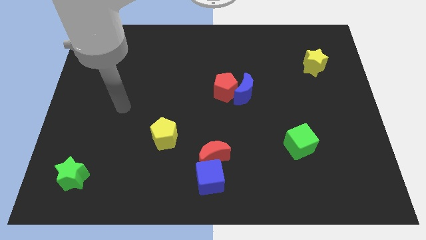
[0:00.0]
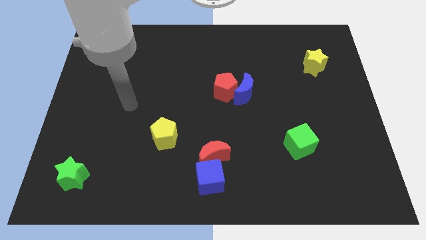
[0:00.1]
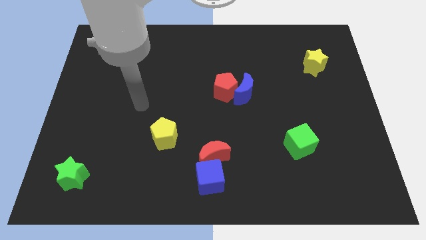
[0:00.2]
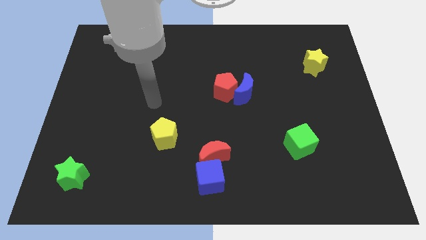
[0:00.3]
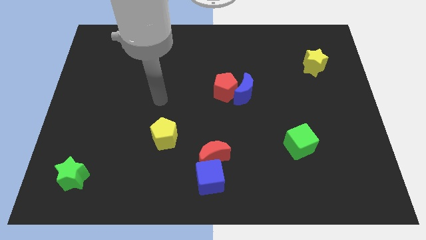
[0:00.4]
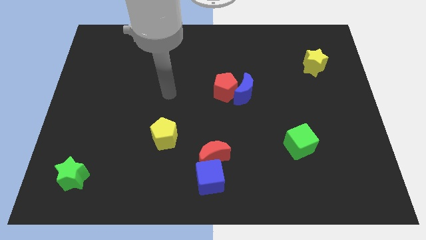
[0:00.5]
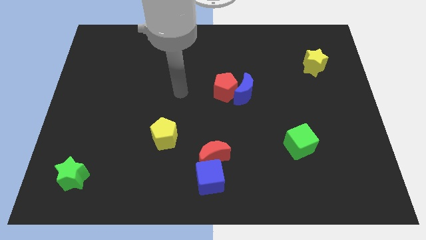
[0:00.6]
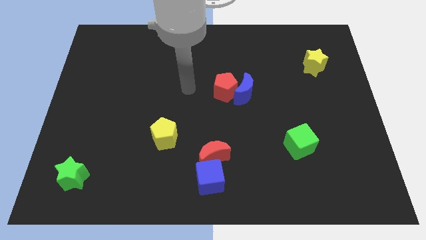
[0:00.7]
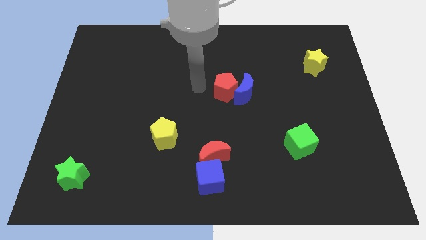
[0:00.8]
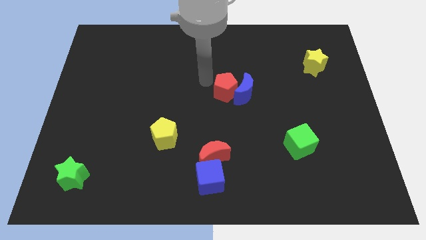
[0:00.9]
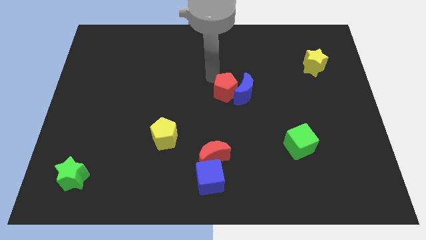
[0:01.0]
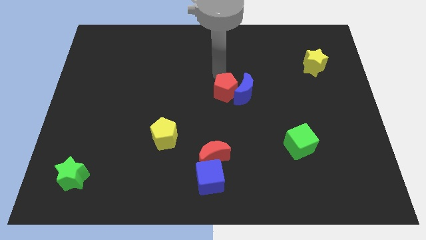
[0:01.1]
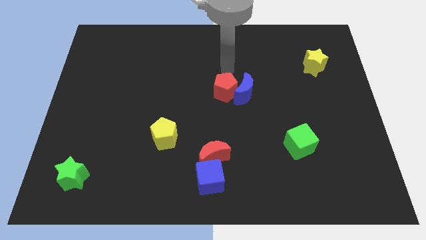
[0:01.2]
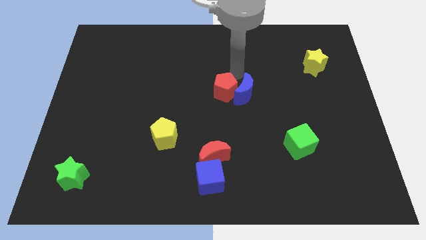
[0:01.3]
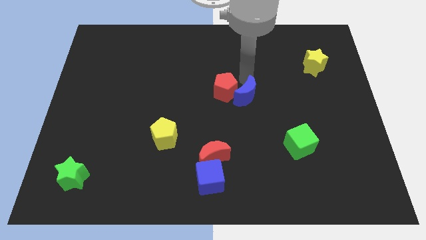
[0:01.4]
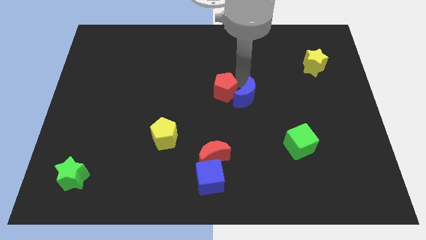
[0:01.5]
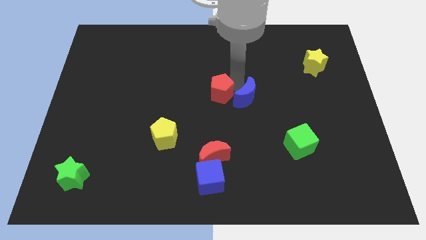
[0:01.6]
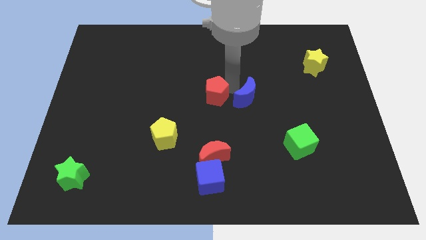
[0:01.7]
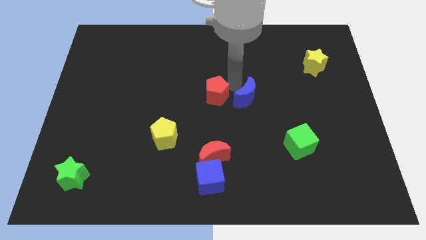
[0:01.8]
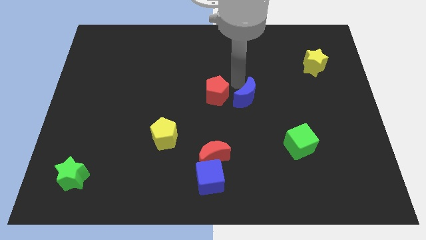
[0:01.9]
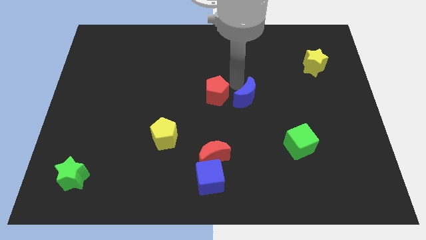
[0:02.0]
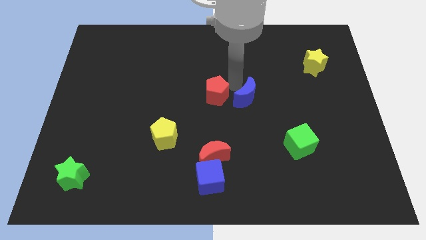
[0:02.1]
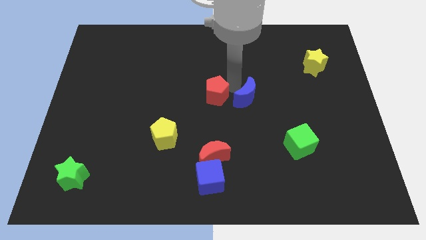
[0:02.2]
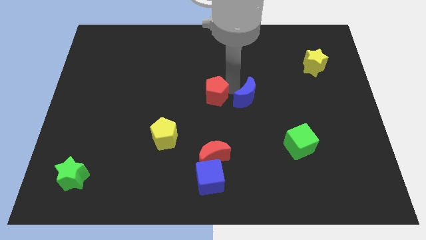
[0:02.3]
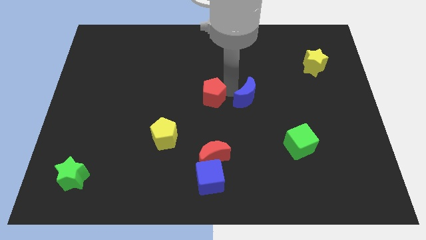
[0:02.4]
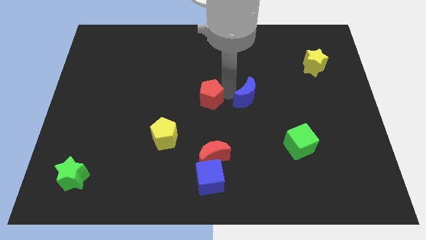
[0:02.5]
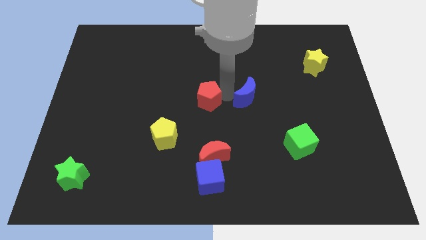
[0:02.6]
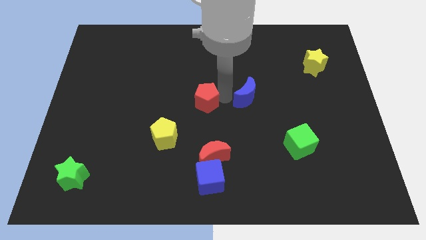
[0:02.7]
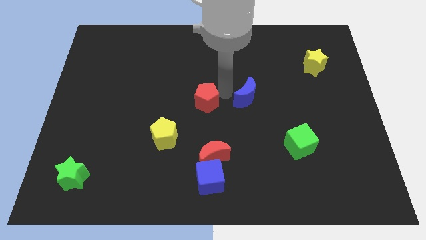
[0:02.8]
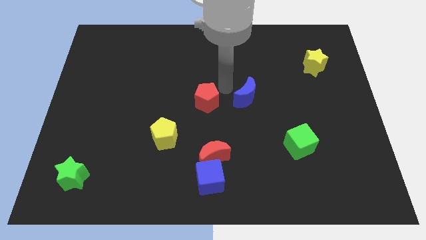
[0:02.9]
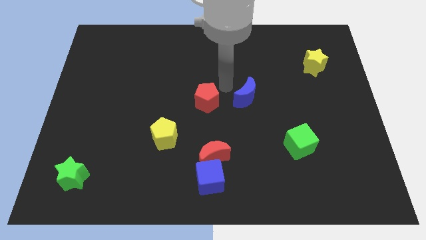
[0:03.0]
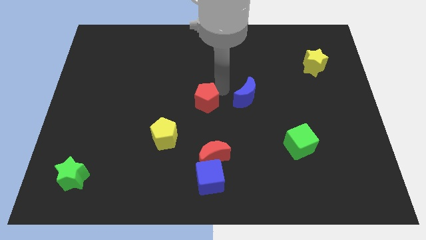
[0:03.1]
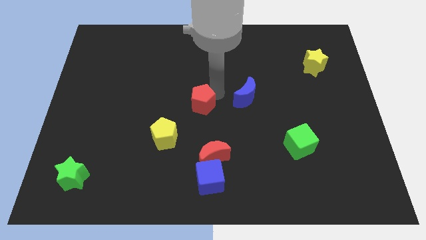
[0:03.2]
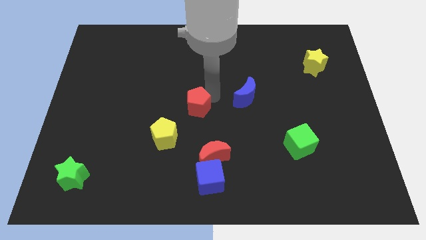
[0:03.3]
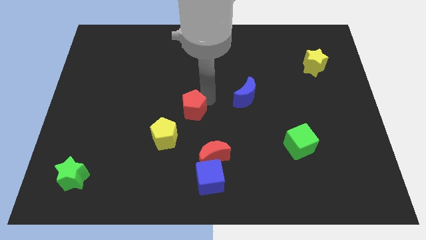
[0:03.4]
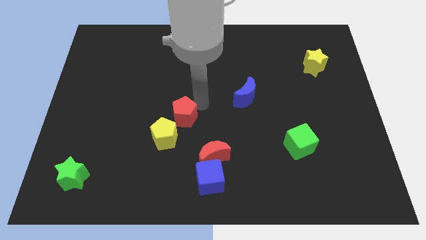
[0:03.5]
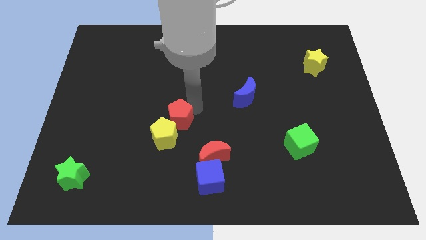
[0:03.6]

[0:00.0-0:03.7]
put the red pentagon close to the yellow pentagon

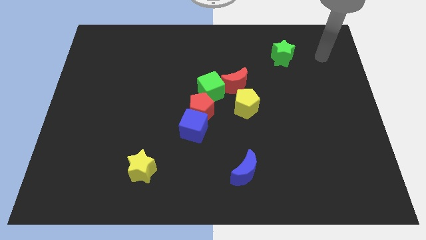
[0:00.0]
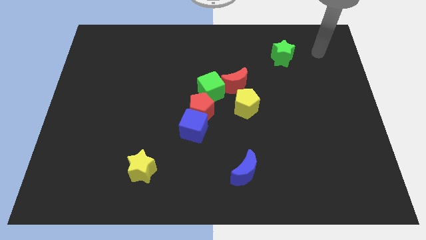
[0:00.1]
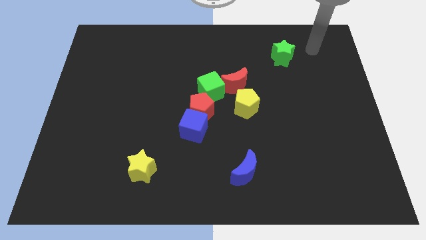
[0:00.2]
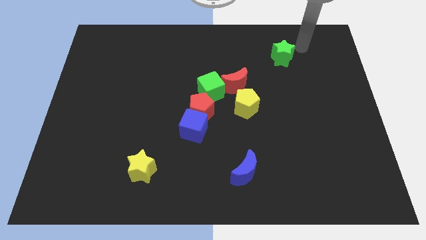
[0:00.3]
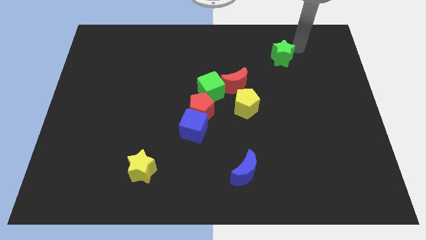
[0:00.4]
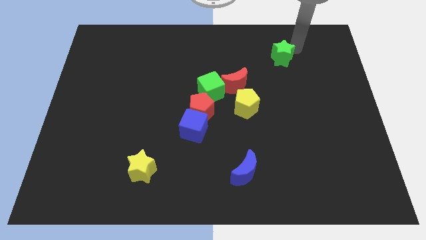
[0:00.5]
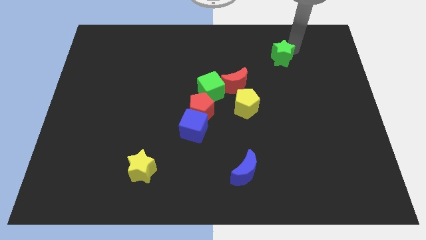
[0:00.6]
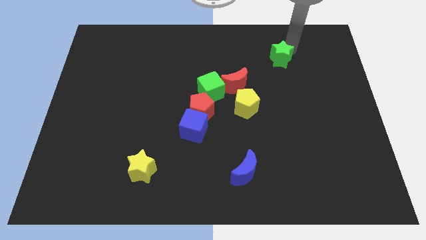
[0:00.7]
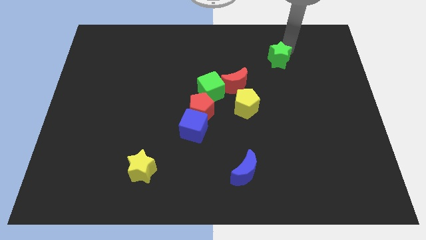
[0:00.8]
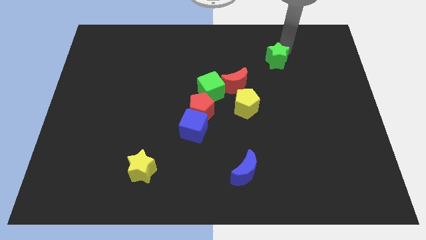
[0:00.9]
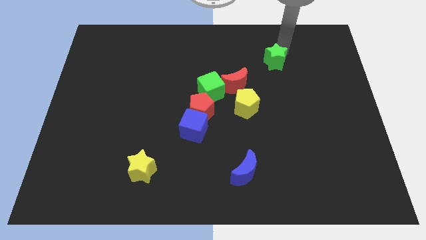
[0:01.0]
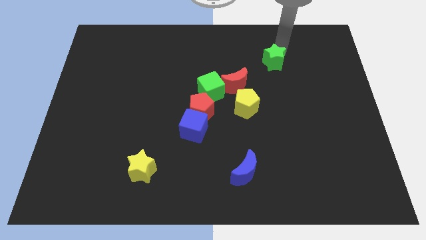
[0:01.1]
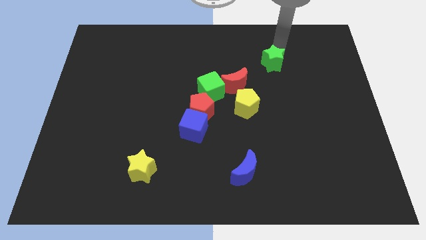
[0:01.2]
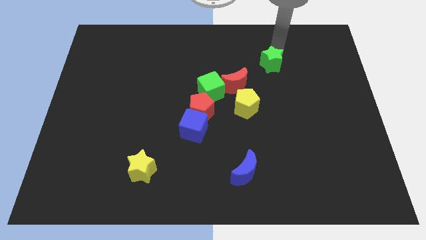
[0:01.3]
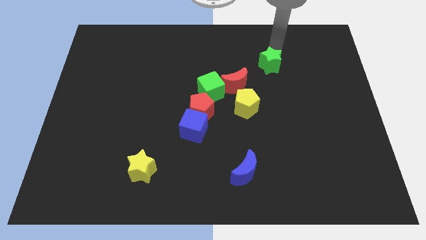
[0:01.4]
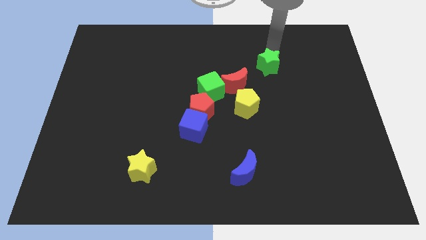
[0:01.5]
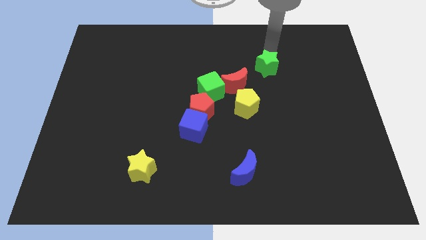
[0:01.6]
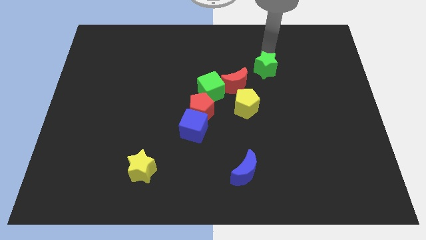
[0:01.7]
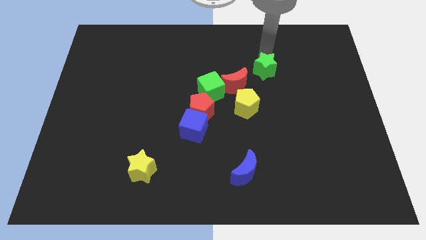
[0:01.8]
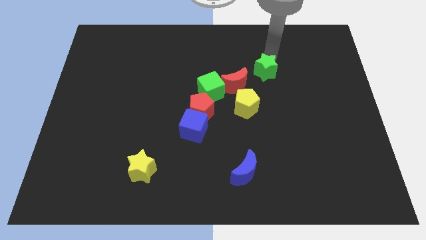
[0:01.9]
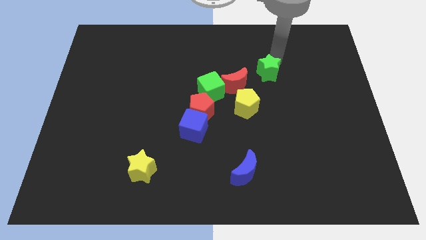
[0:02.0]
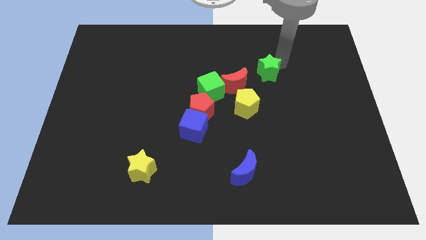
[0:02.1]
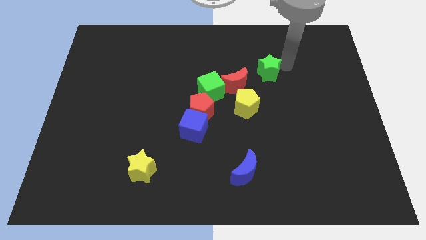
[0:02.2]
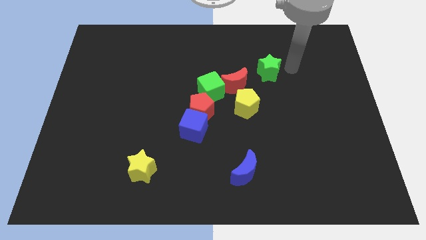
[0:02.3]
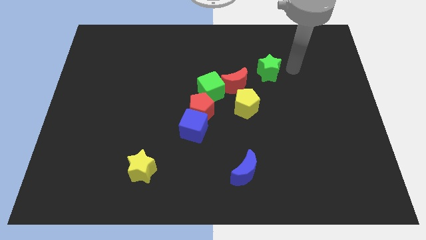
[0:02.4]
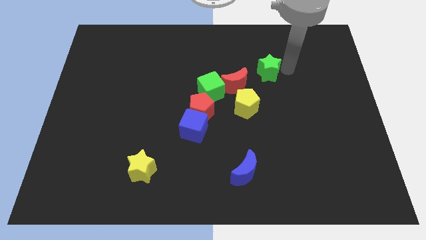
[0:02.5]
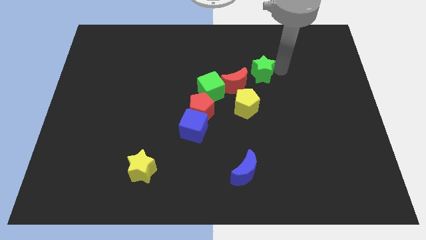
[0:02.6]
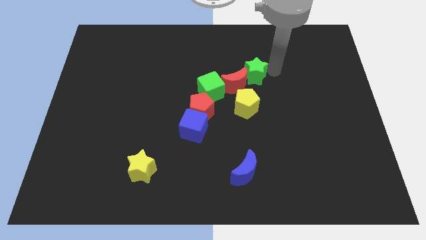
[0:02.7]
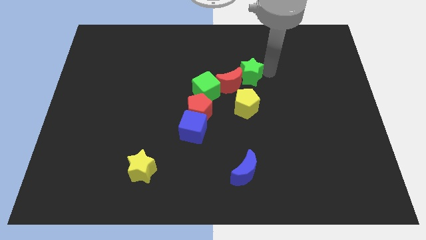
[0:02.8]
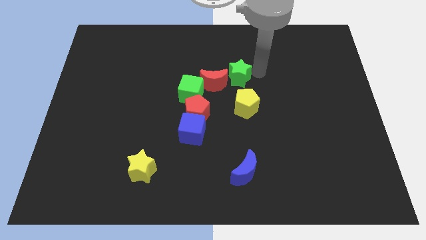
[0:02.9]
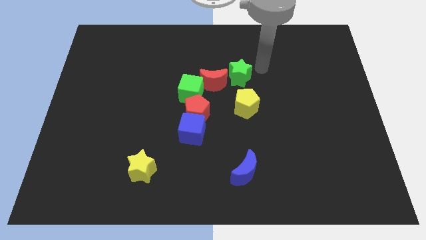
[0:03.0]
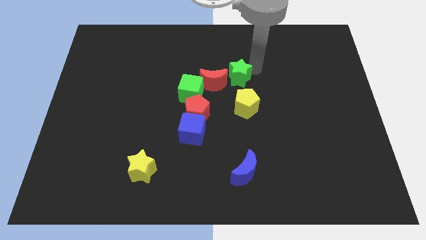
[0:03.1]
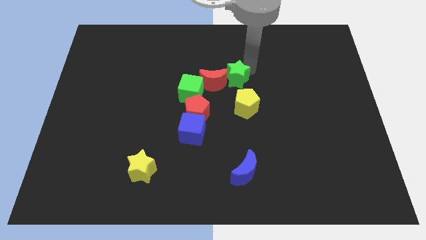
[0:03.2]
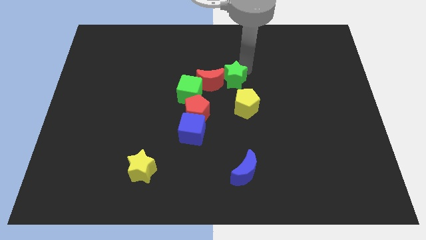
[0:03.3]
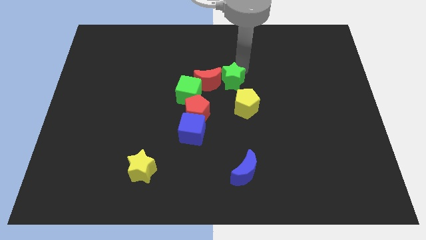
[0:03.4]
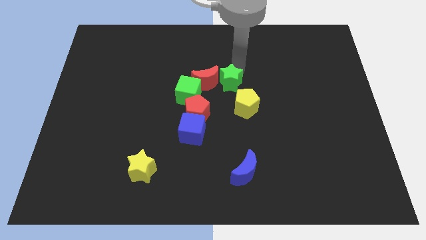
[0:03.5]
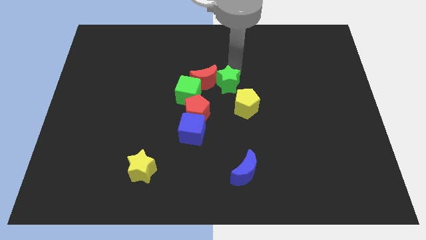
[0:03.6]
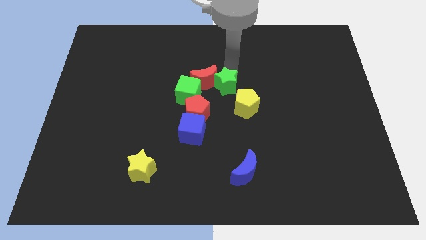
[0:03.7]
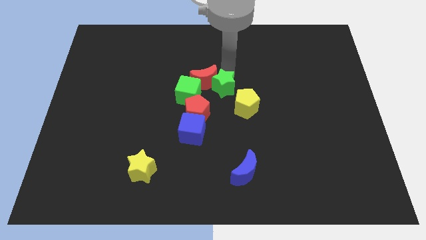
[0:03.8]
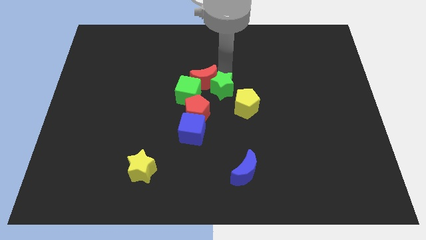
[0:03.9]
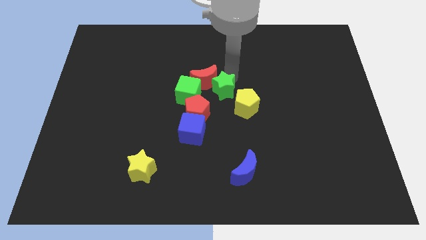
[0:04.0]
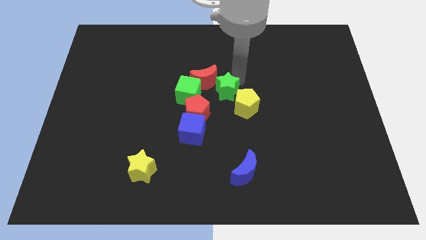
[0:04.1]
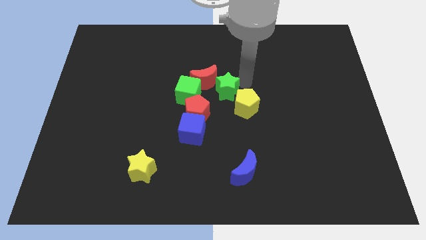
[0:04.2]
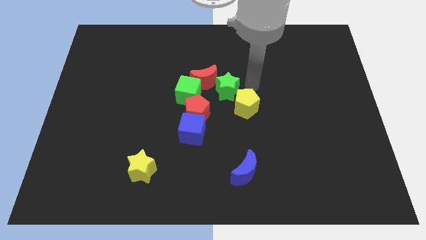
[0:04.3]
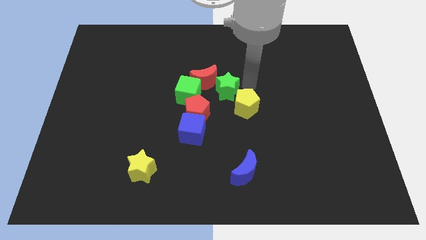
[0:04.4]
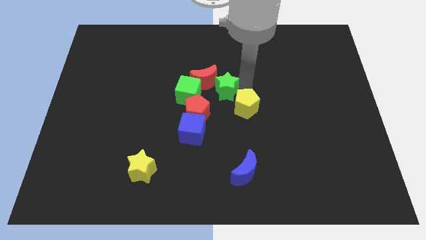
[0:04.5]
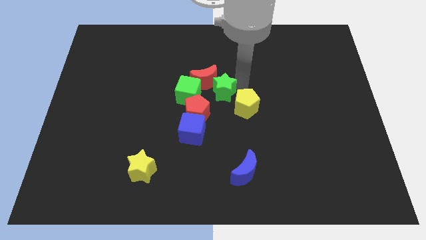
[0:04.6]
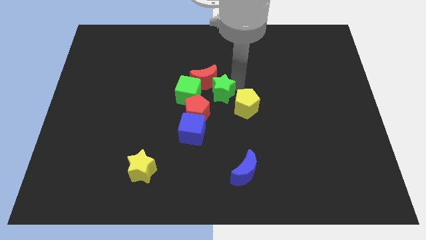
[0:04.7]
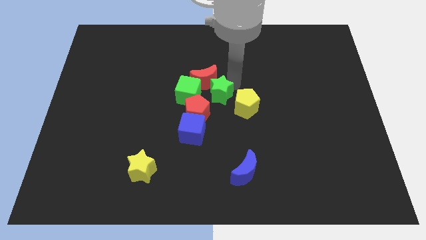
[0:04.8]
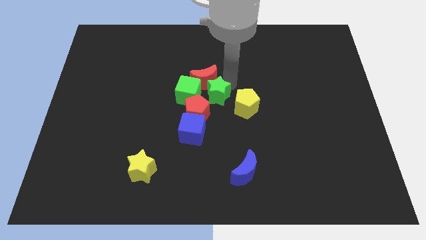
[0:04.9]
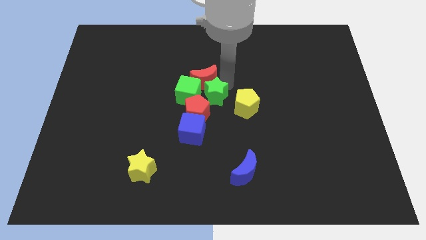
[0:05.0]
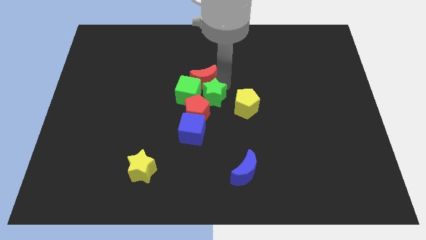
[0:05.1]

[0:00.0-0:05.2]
move the green star to the green cube
